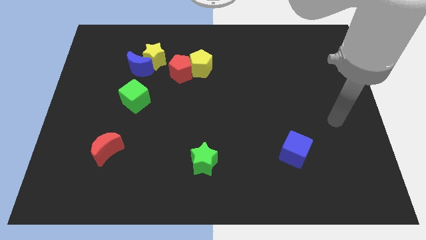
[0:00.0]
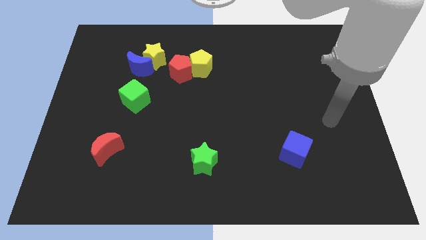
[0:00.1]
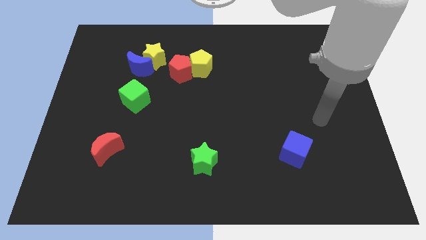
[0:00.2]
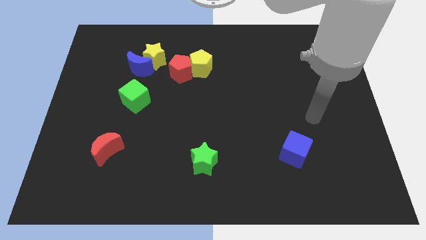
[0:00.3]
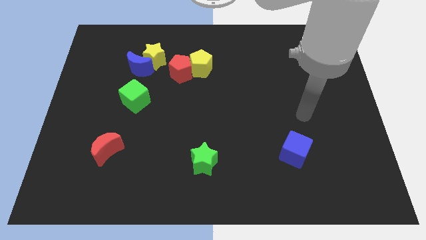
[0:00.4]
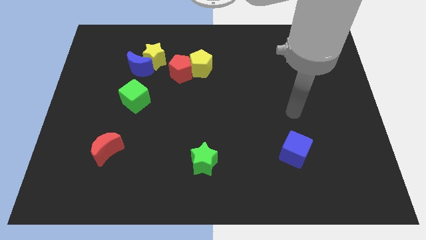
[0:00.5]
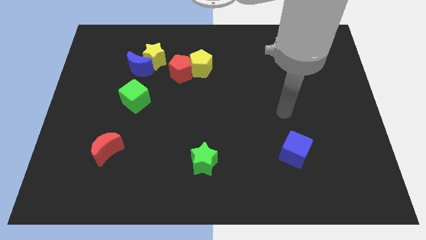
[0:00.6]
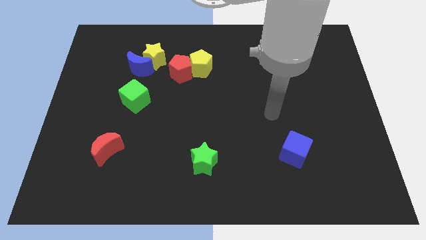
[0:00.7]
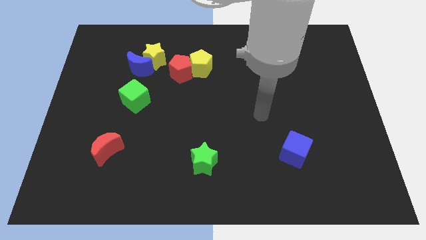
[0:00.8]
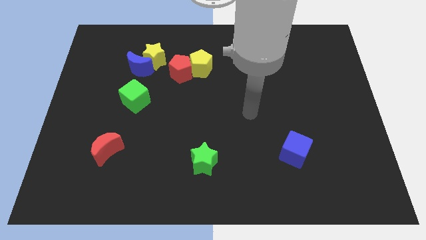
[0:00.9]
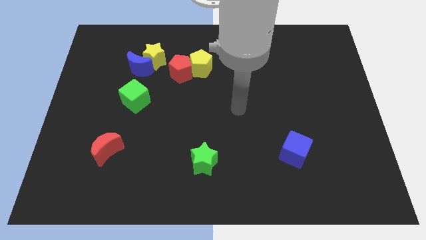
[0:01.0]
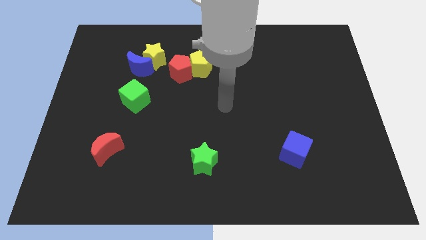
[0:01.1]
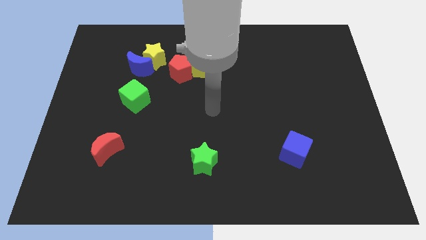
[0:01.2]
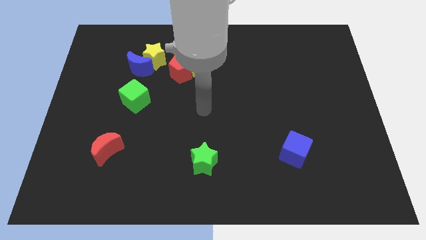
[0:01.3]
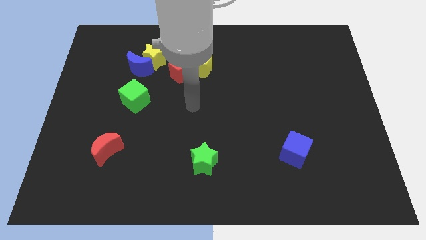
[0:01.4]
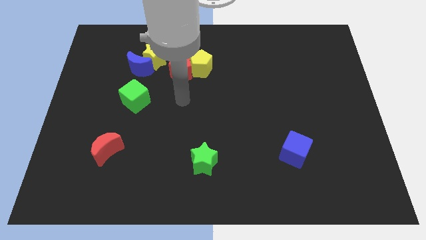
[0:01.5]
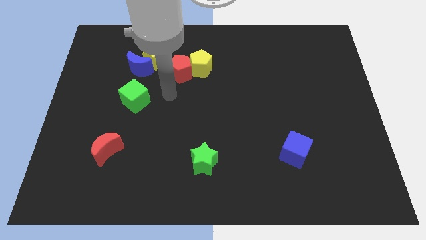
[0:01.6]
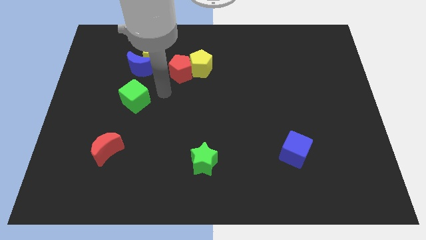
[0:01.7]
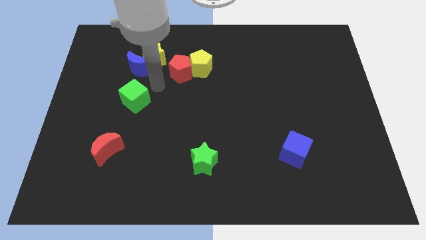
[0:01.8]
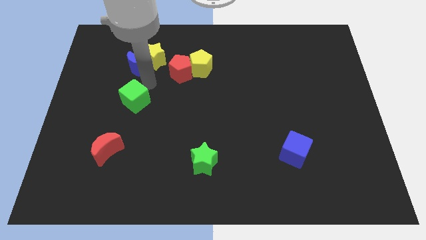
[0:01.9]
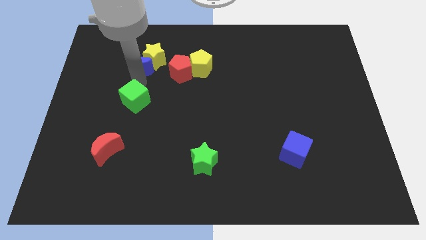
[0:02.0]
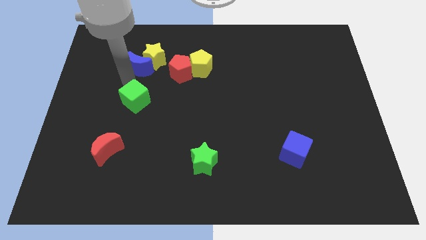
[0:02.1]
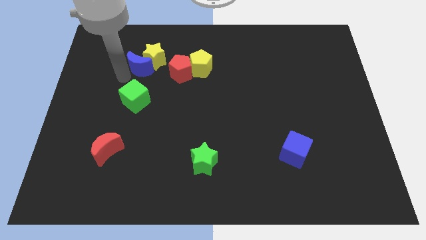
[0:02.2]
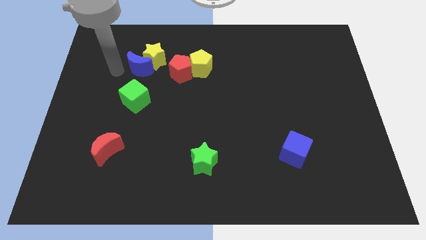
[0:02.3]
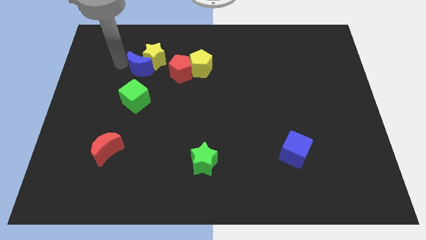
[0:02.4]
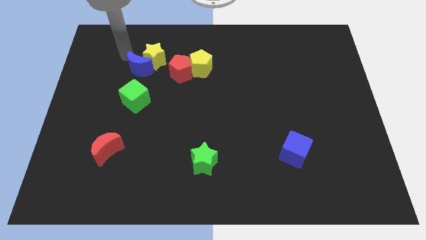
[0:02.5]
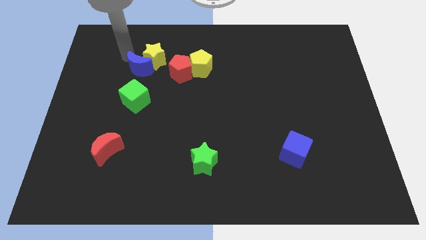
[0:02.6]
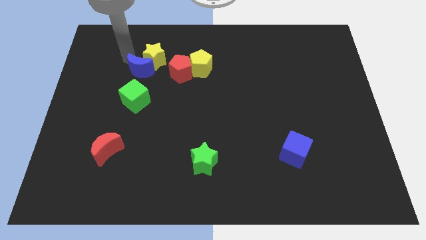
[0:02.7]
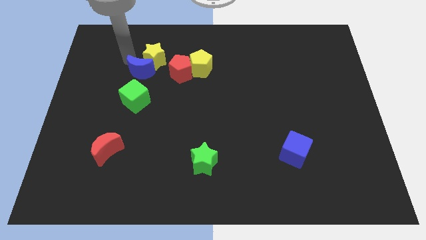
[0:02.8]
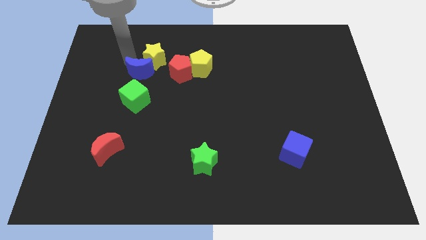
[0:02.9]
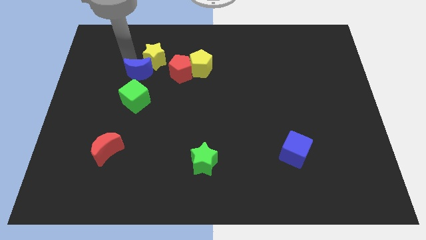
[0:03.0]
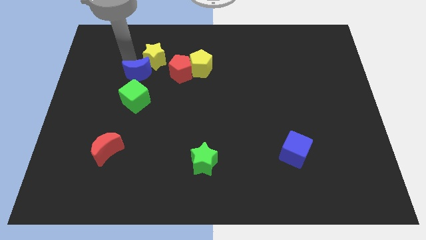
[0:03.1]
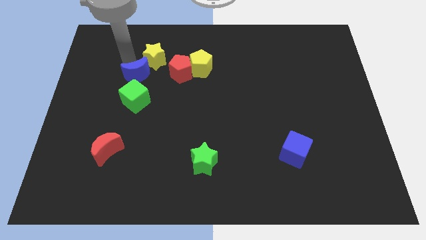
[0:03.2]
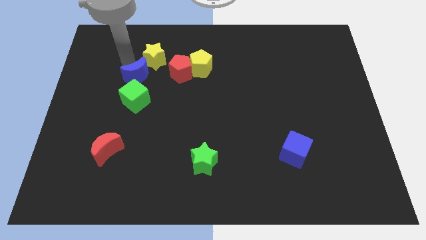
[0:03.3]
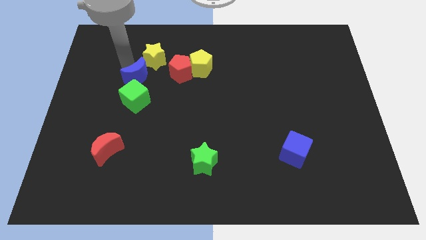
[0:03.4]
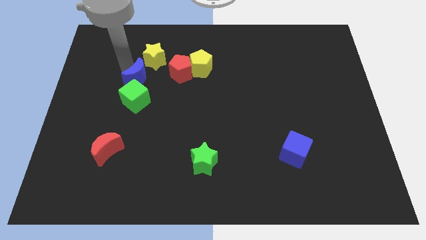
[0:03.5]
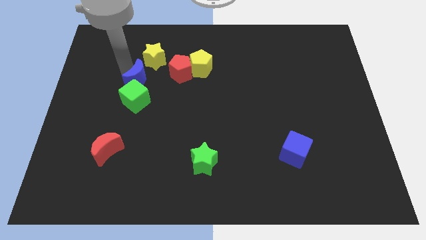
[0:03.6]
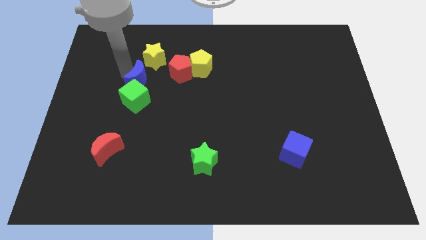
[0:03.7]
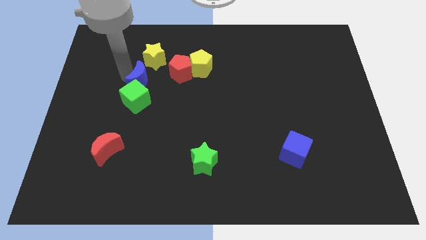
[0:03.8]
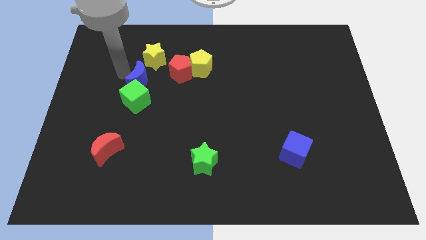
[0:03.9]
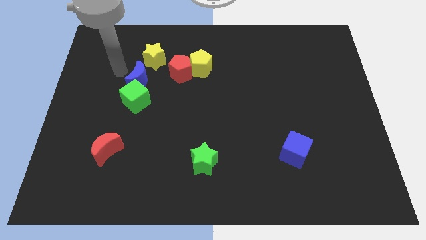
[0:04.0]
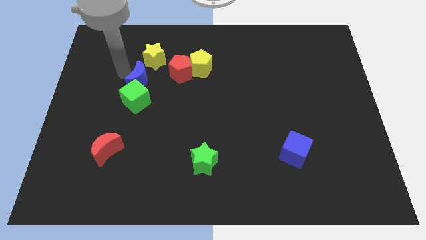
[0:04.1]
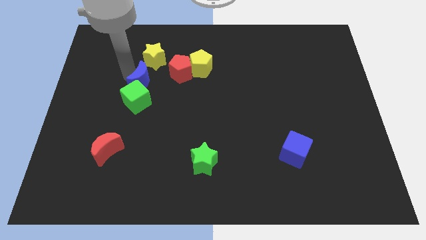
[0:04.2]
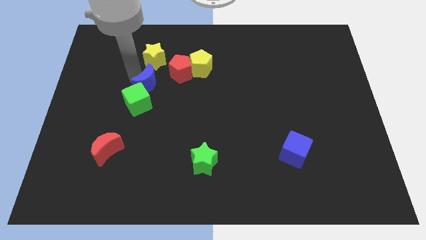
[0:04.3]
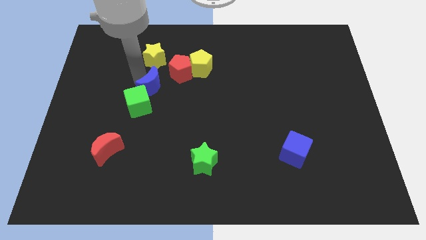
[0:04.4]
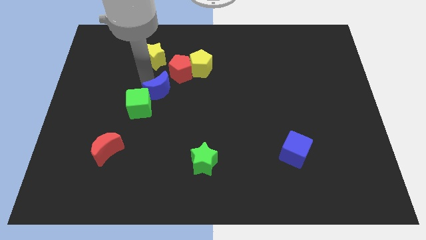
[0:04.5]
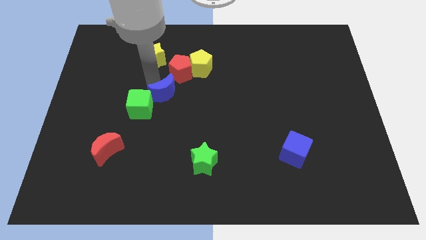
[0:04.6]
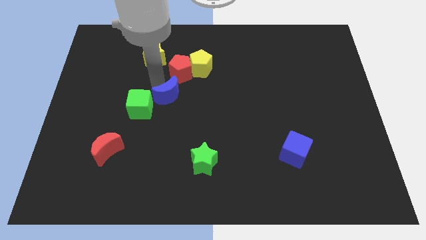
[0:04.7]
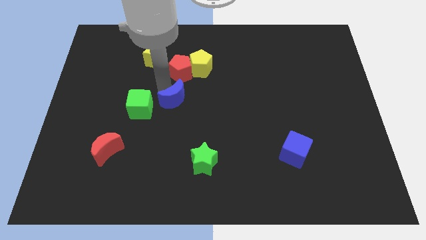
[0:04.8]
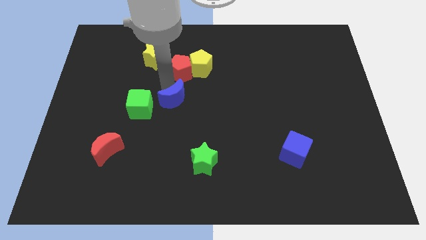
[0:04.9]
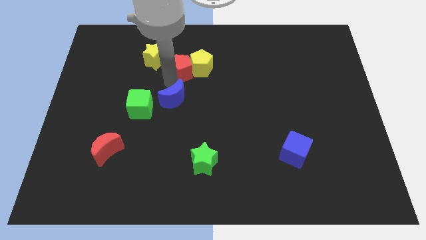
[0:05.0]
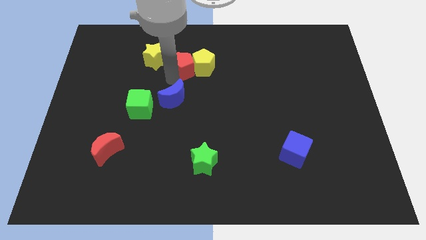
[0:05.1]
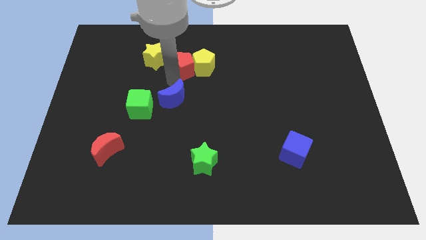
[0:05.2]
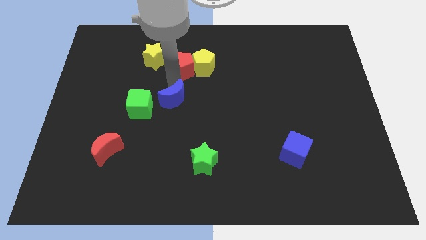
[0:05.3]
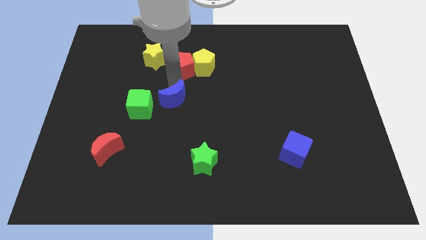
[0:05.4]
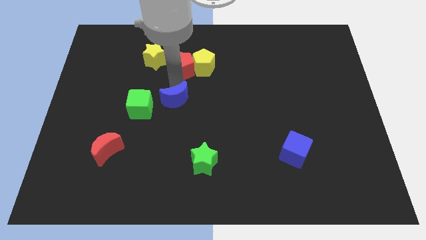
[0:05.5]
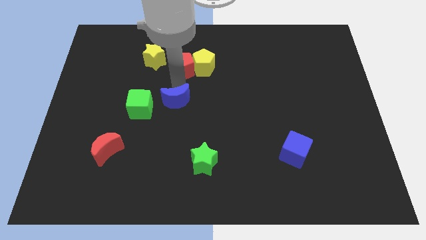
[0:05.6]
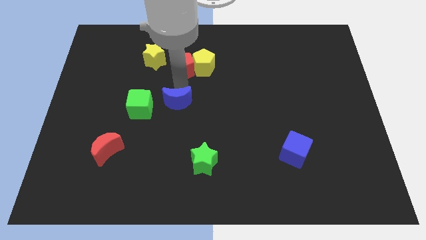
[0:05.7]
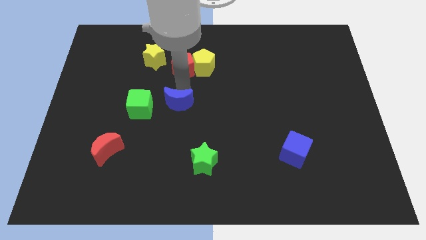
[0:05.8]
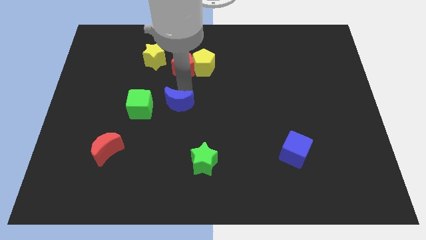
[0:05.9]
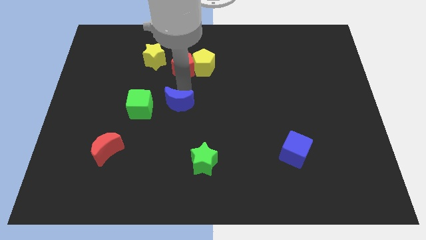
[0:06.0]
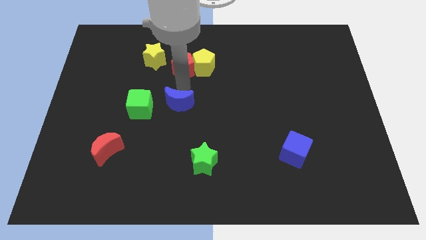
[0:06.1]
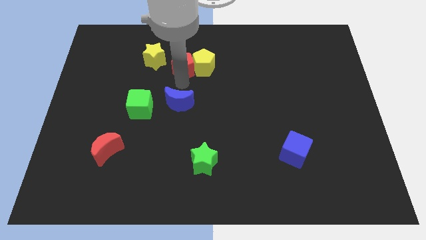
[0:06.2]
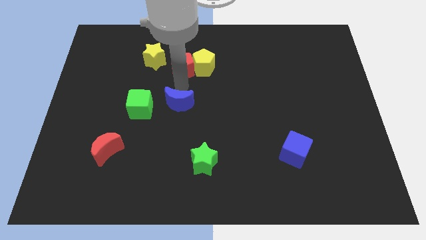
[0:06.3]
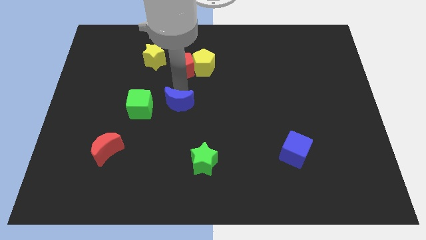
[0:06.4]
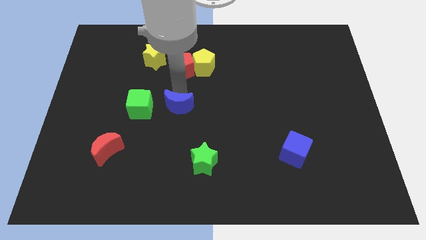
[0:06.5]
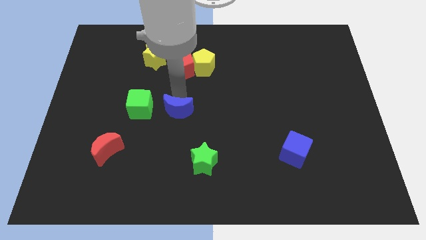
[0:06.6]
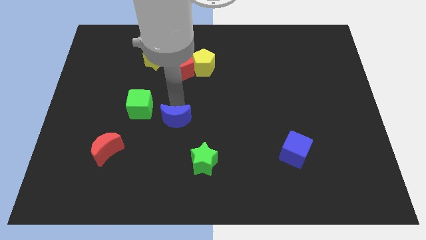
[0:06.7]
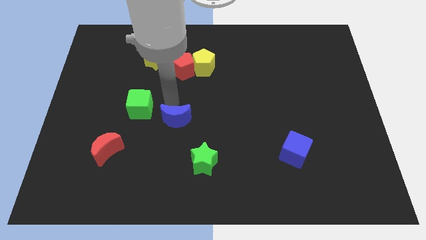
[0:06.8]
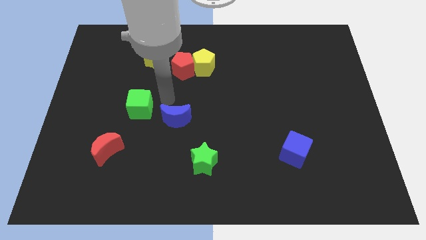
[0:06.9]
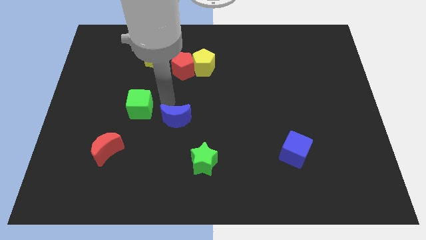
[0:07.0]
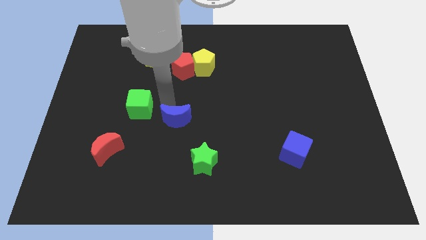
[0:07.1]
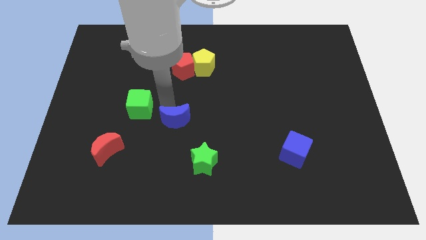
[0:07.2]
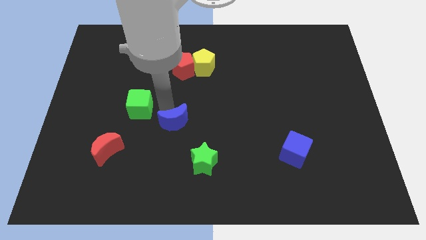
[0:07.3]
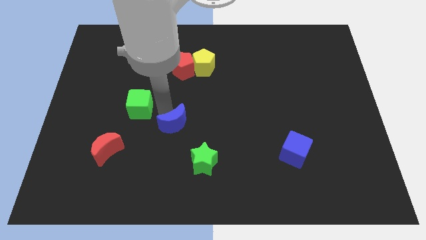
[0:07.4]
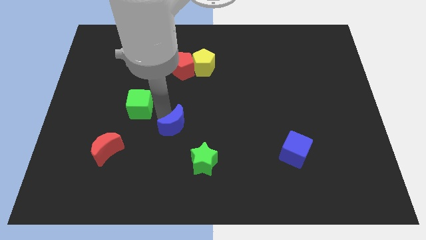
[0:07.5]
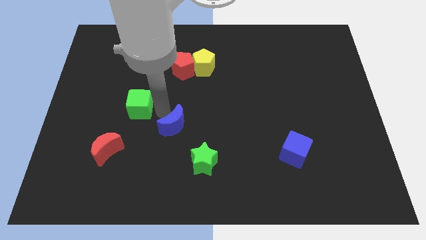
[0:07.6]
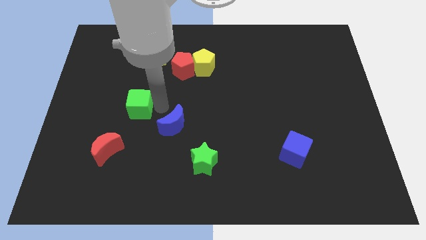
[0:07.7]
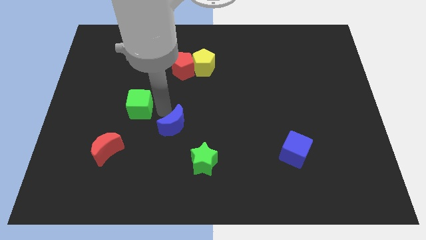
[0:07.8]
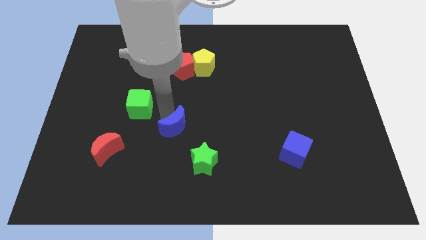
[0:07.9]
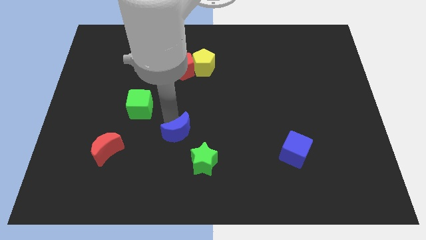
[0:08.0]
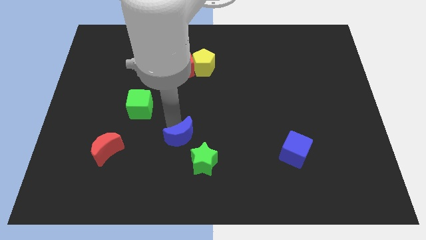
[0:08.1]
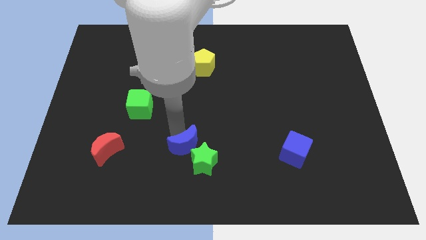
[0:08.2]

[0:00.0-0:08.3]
push the blue moon towards the green star
